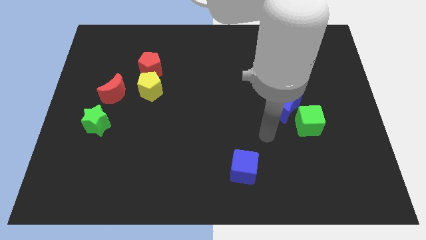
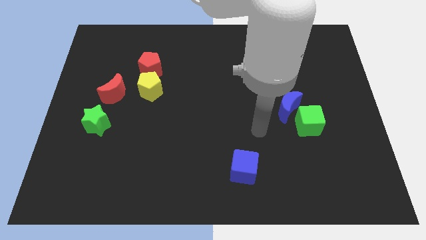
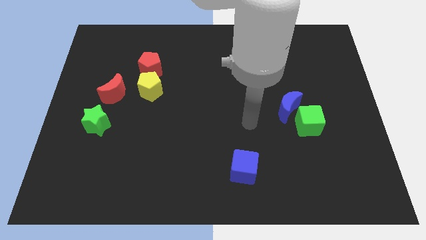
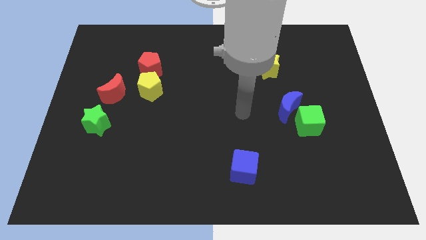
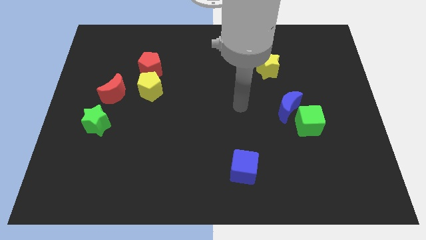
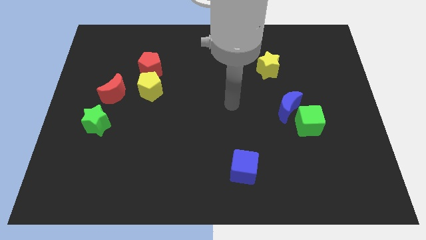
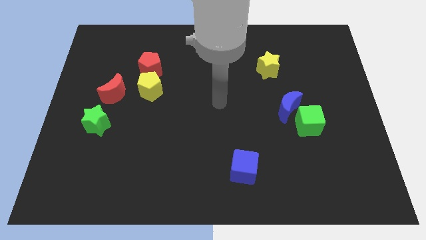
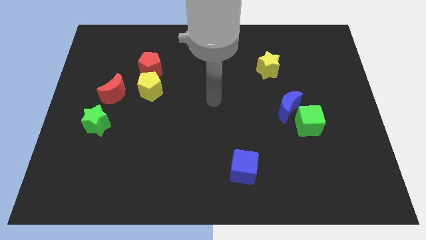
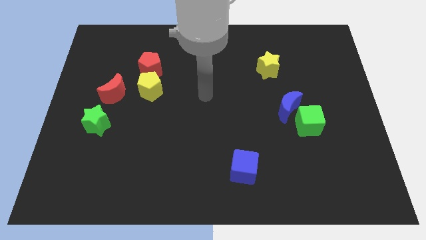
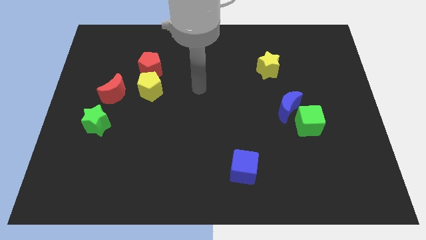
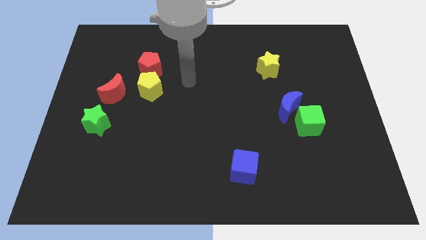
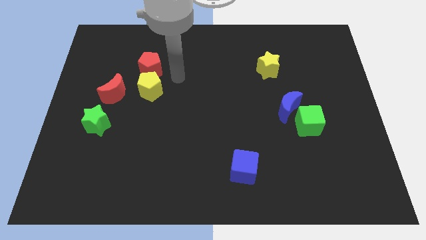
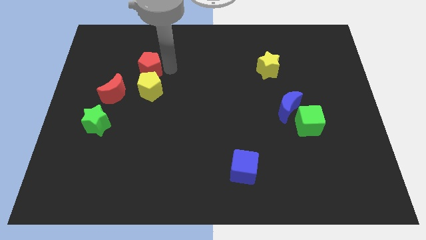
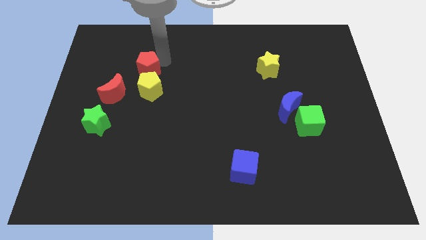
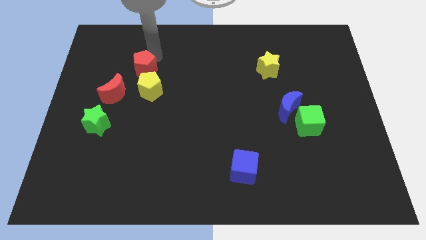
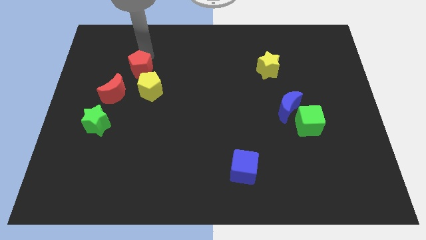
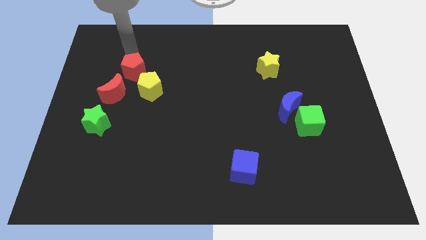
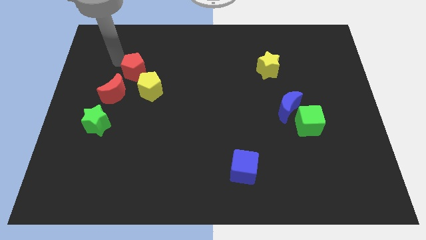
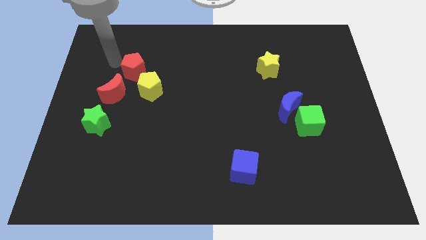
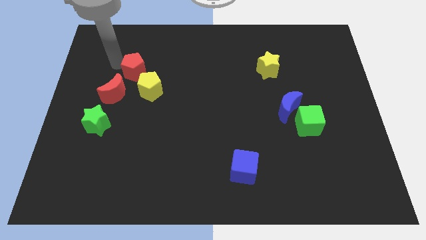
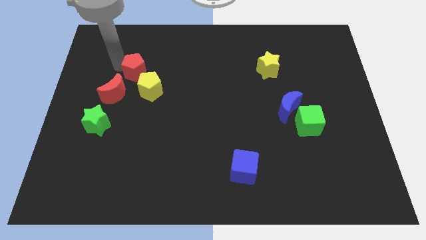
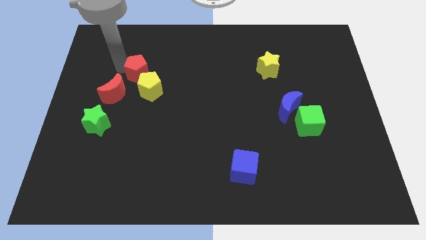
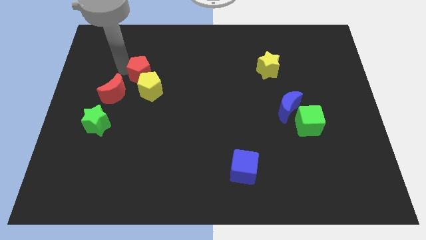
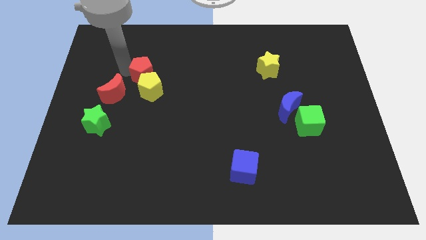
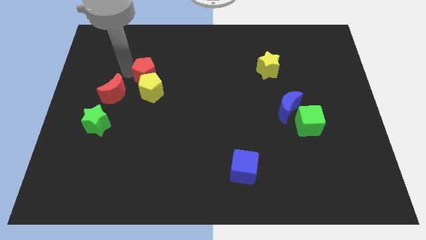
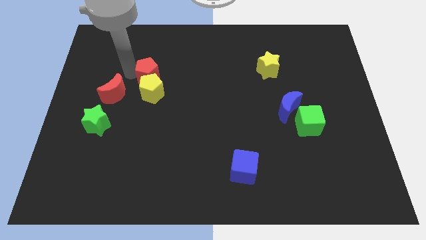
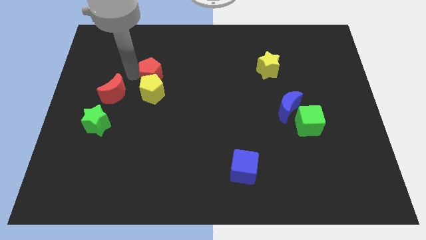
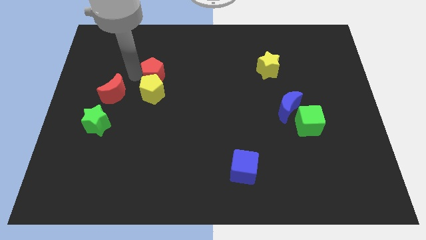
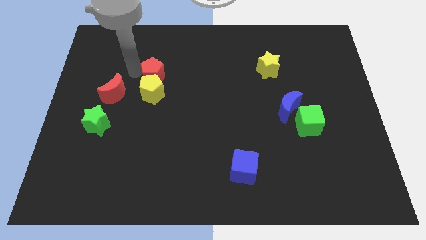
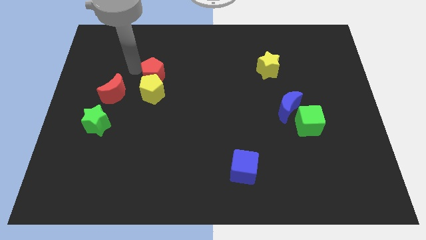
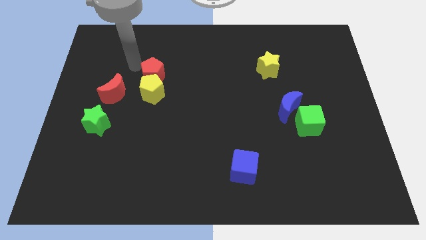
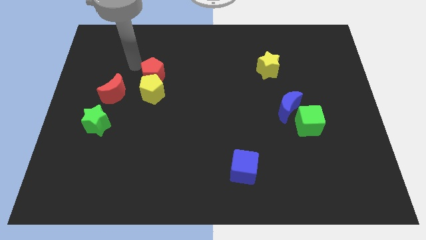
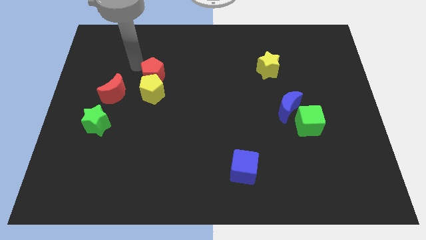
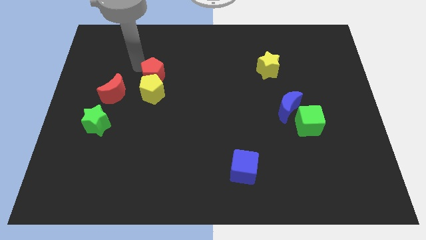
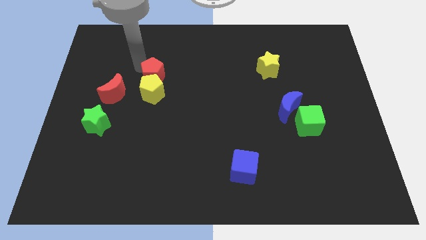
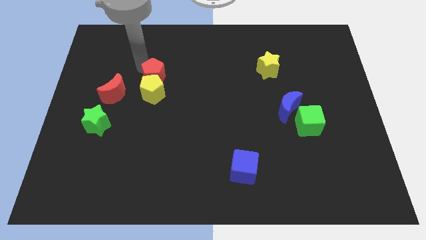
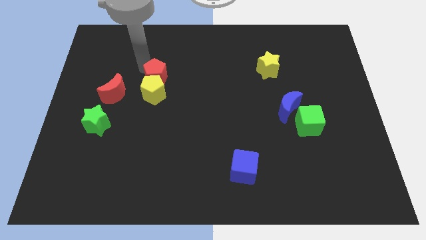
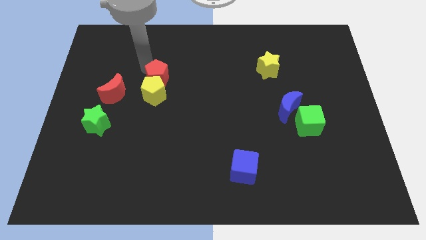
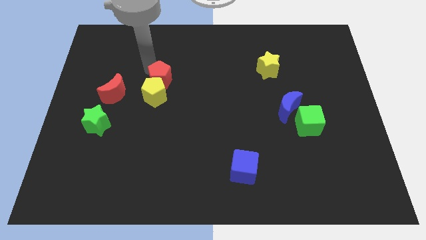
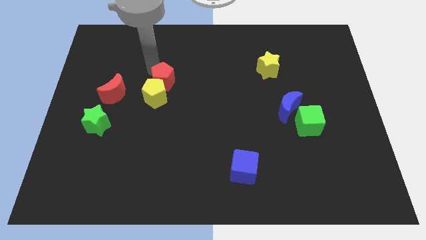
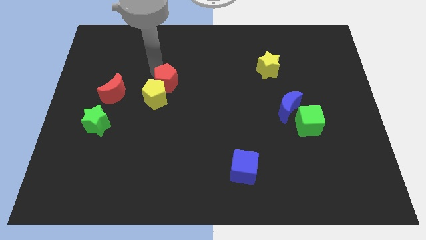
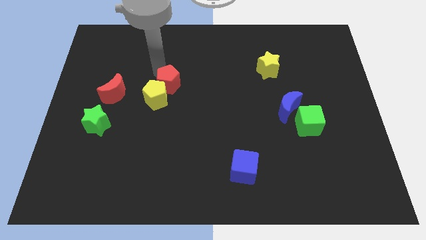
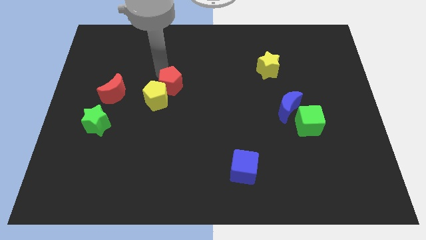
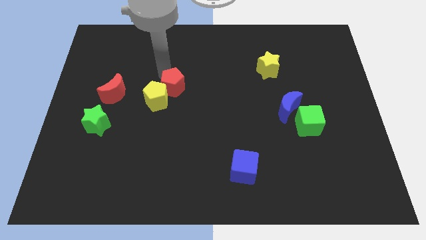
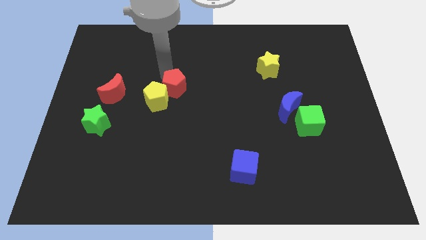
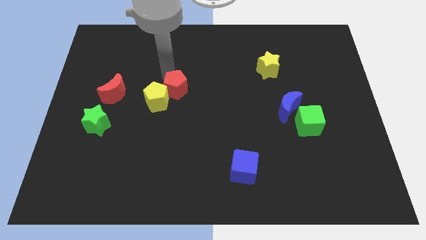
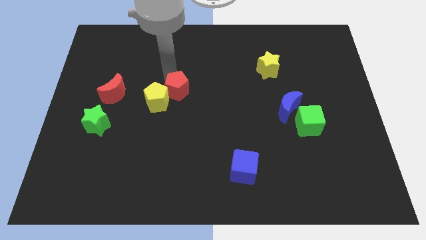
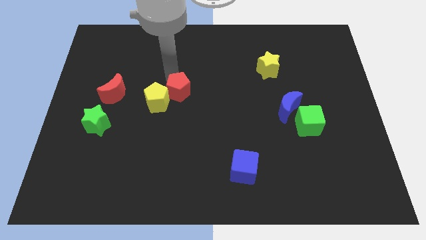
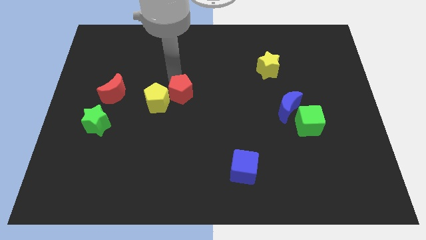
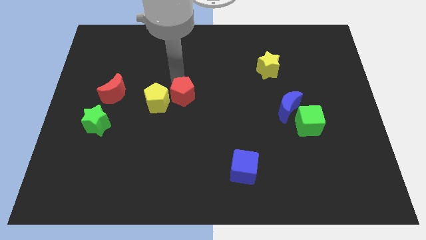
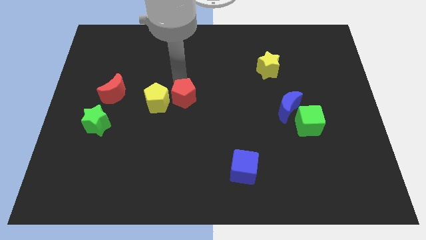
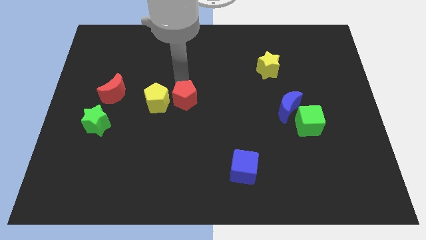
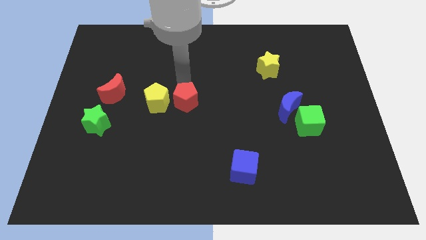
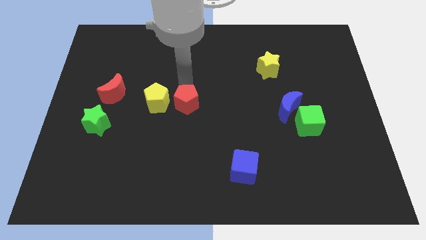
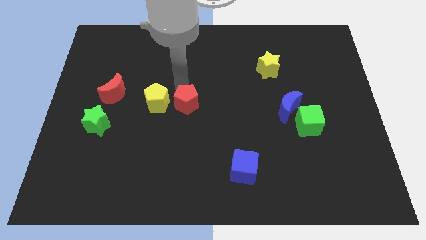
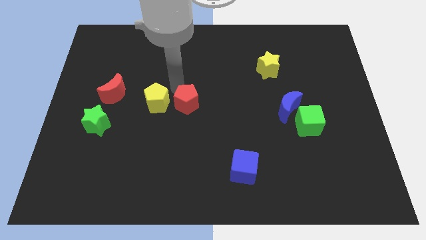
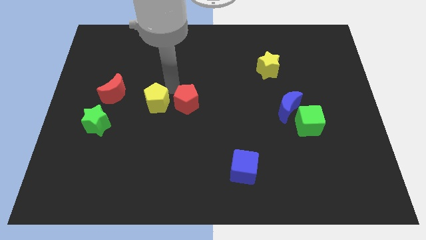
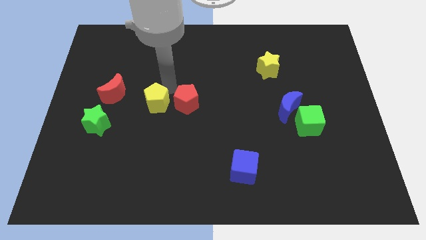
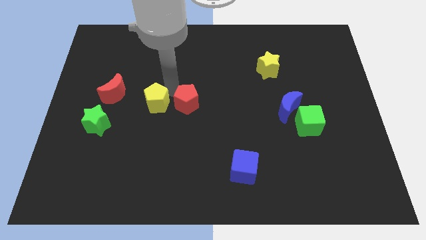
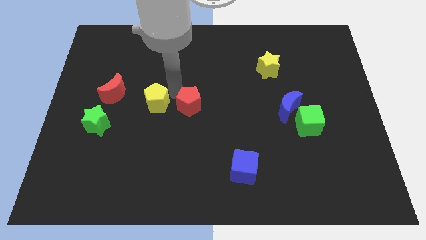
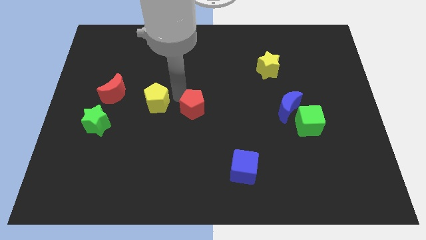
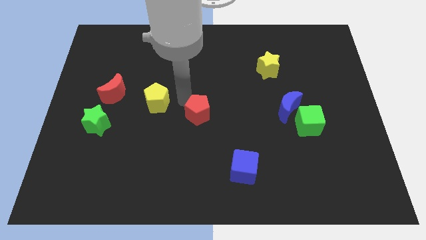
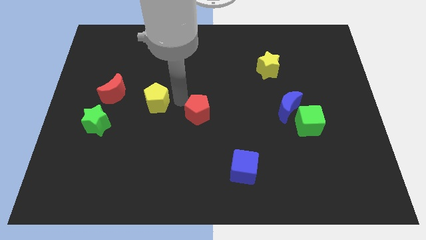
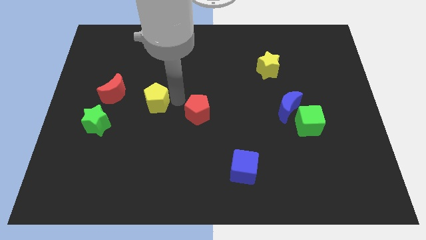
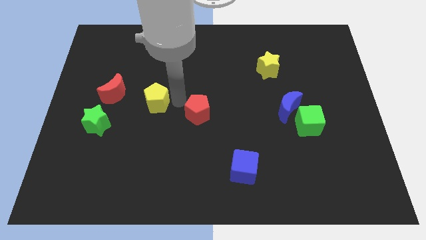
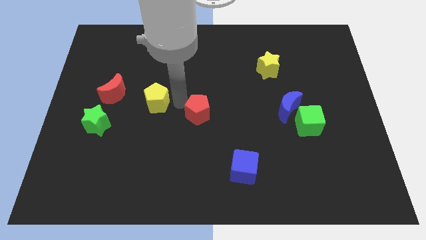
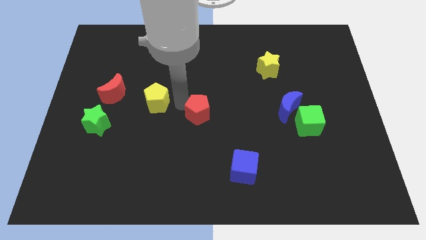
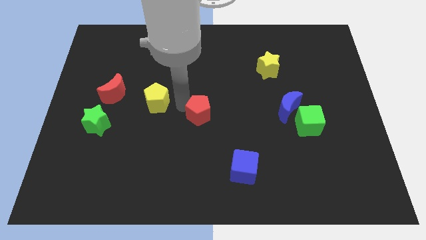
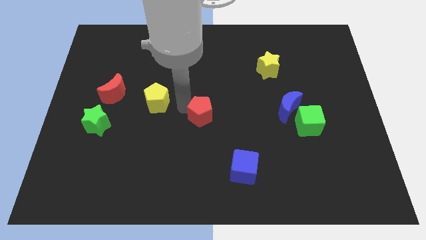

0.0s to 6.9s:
slide the red pentagon downwards and to the right

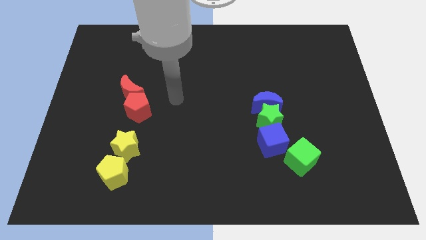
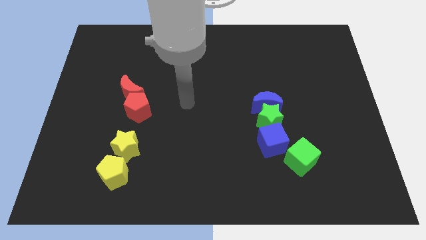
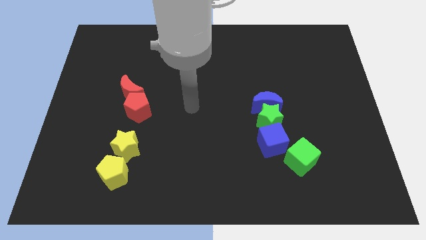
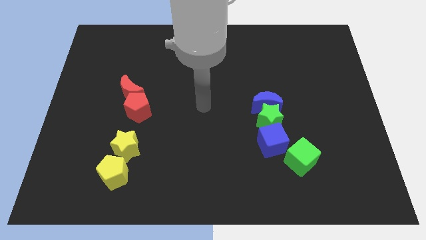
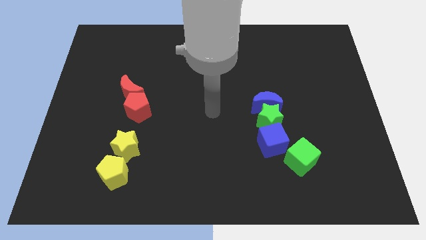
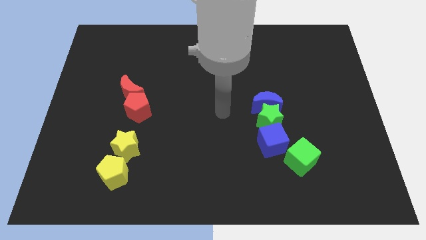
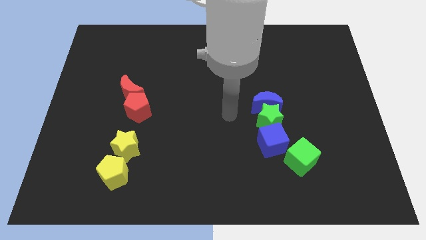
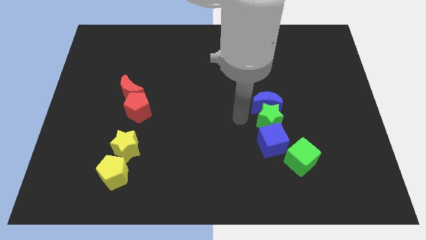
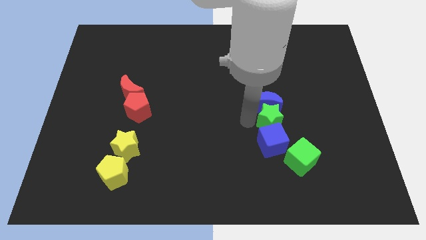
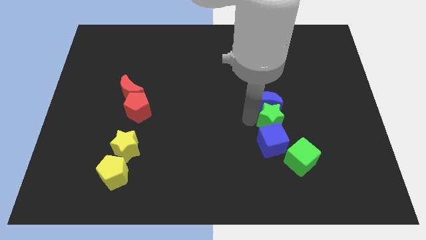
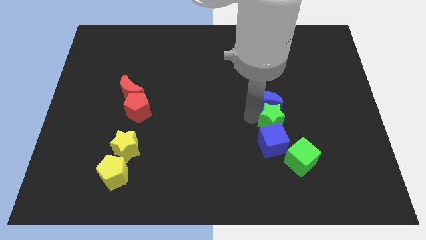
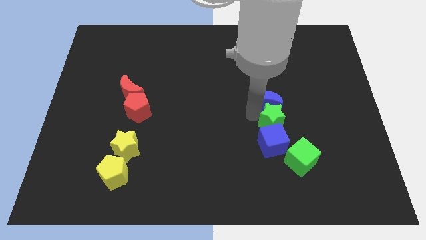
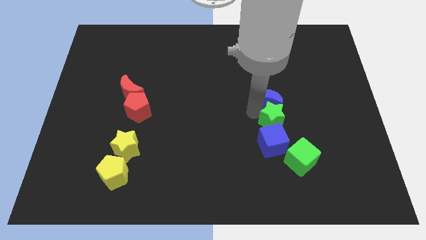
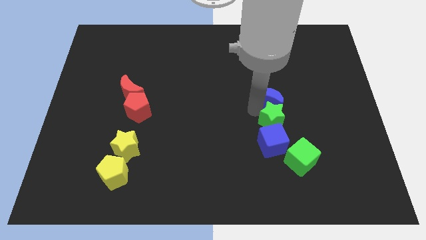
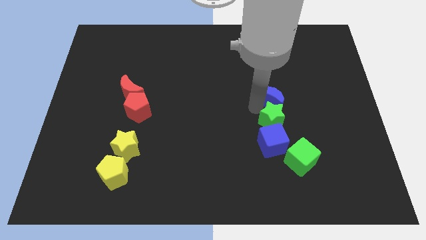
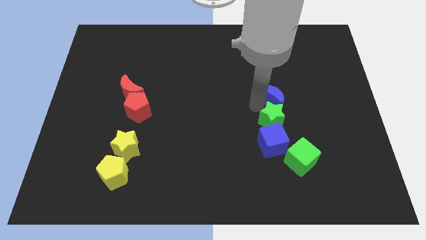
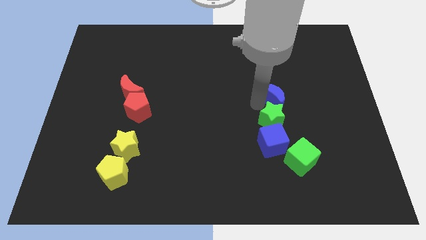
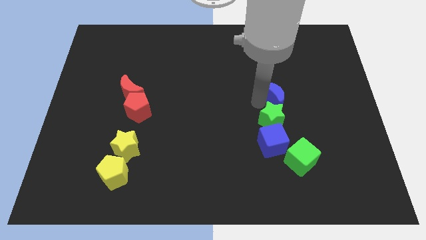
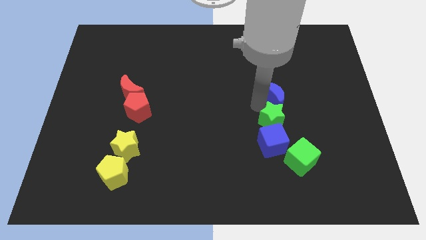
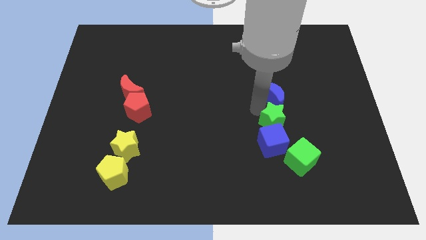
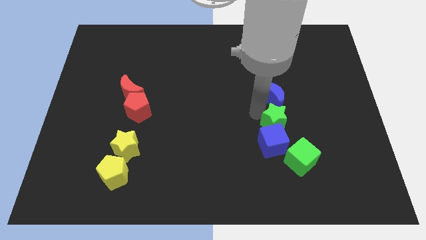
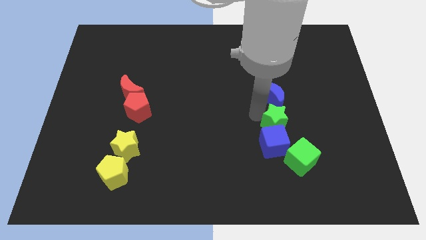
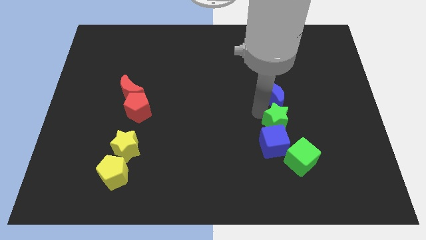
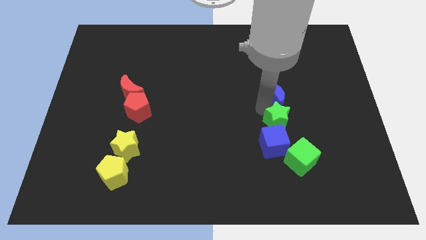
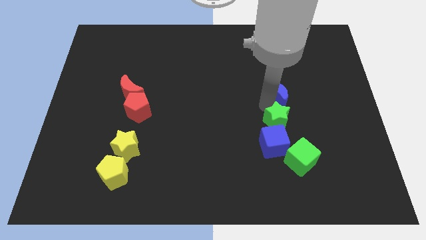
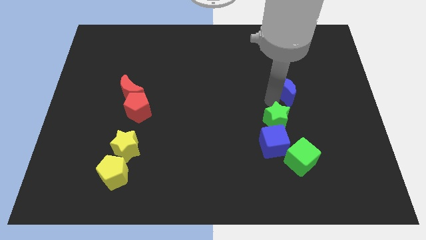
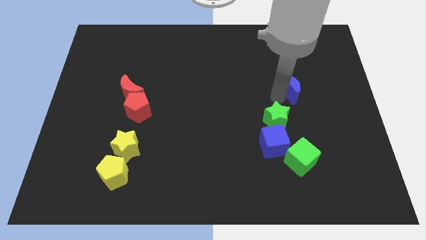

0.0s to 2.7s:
move the blue moon diagonally upwards and right a bit
